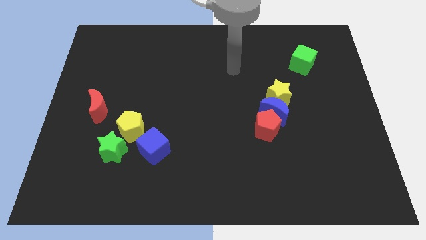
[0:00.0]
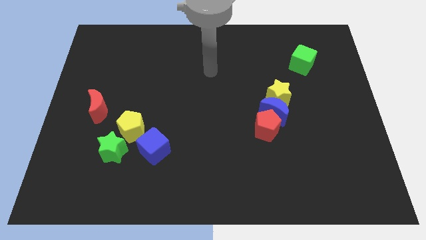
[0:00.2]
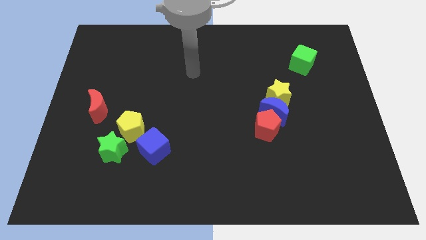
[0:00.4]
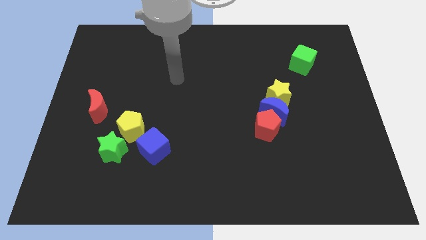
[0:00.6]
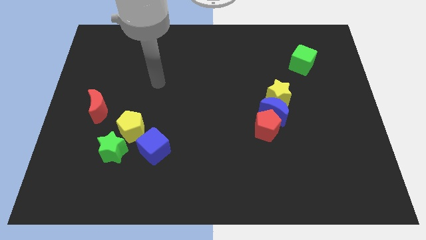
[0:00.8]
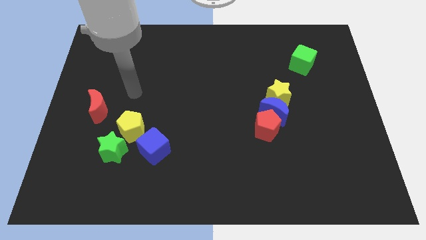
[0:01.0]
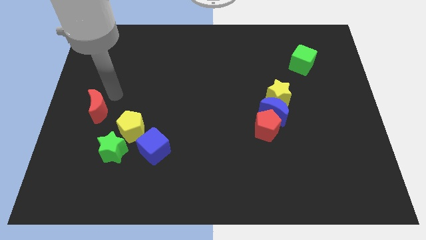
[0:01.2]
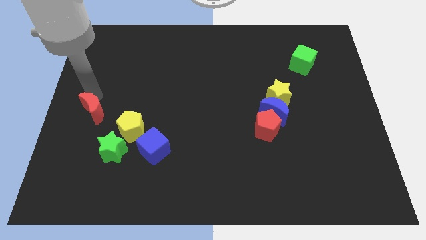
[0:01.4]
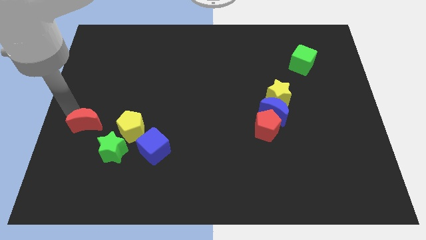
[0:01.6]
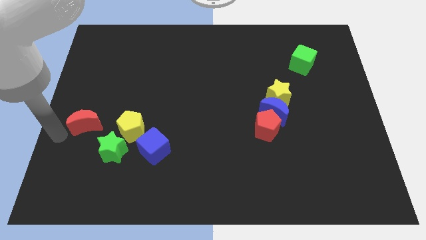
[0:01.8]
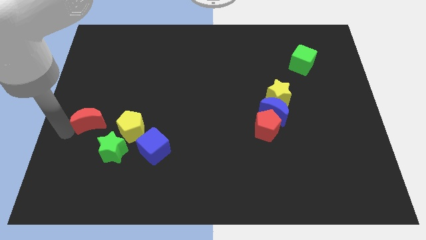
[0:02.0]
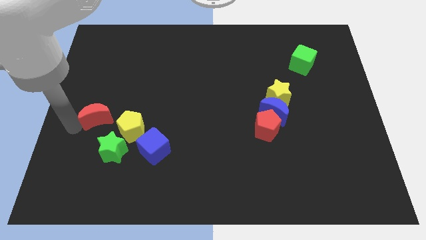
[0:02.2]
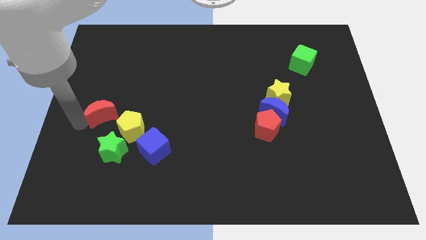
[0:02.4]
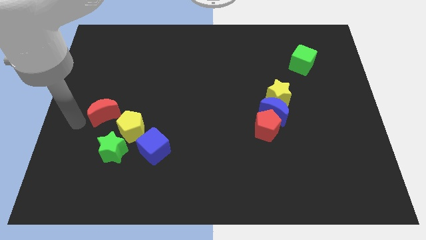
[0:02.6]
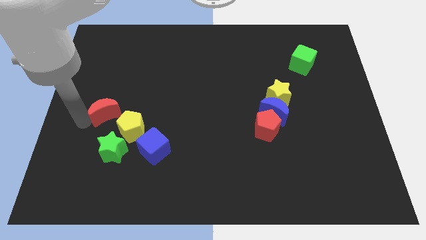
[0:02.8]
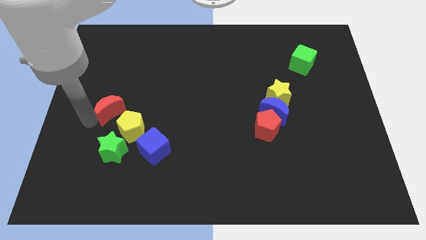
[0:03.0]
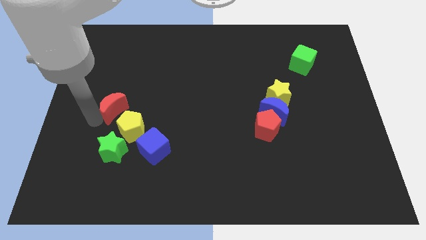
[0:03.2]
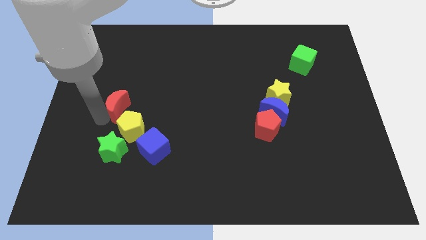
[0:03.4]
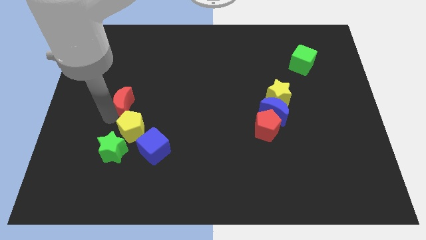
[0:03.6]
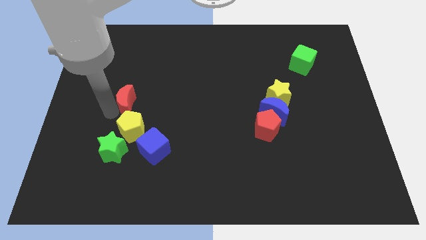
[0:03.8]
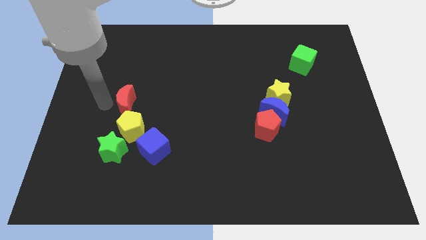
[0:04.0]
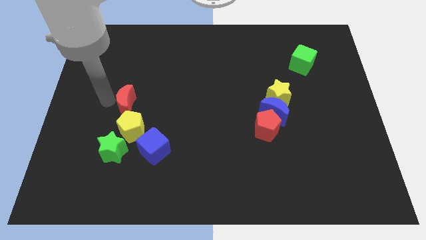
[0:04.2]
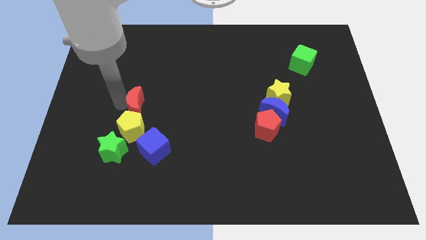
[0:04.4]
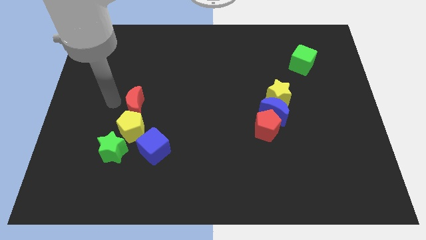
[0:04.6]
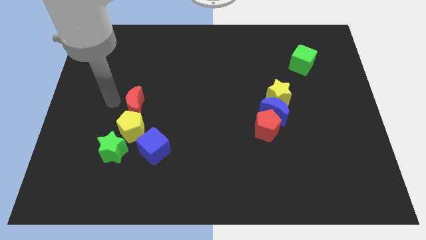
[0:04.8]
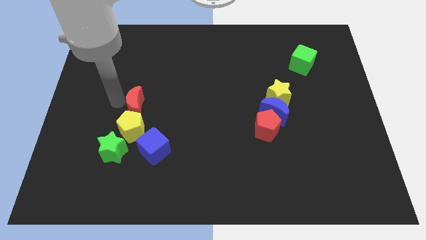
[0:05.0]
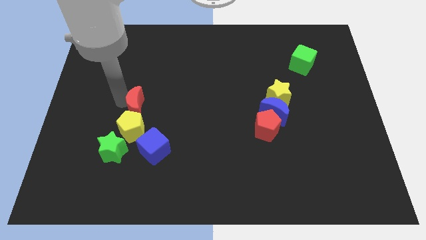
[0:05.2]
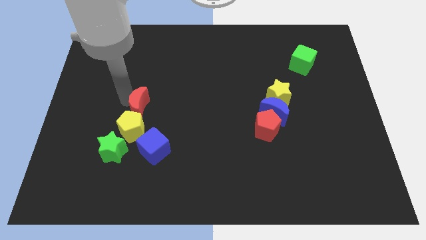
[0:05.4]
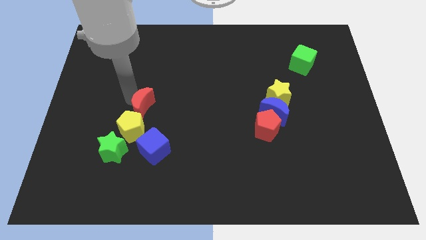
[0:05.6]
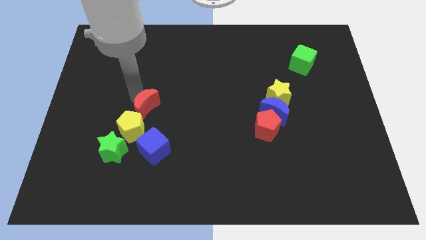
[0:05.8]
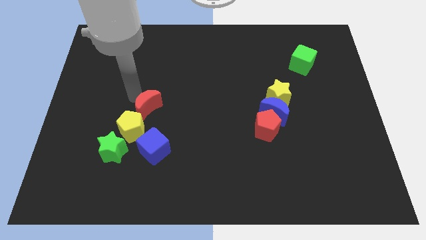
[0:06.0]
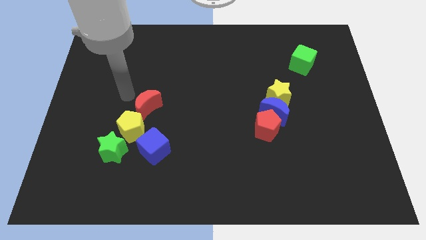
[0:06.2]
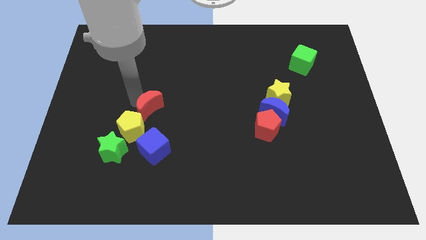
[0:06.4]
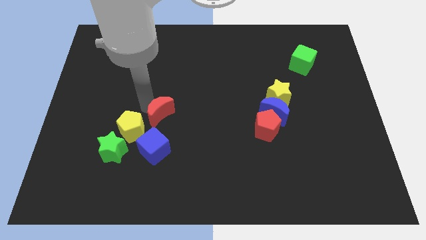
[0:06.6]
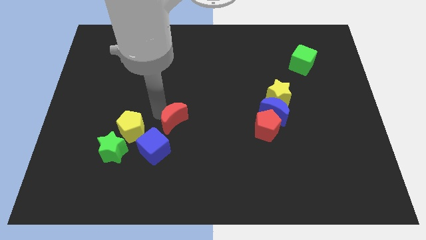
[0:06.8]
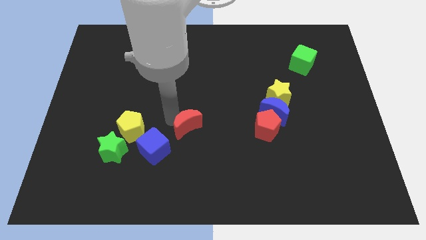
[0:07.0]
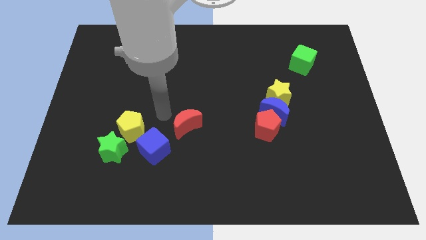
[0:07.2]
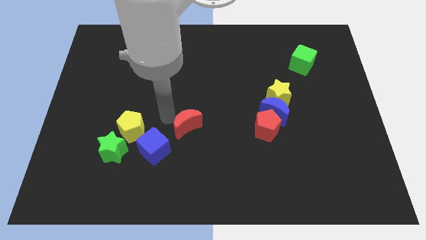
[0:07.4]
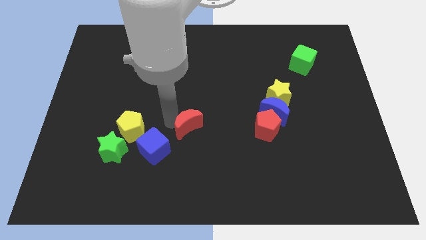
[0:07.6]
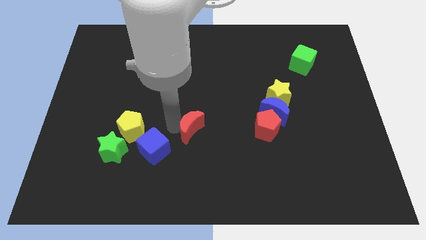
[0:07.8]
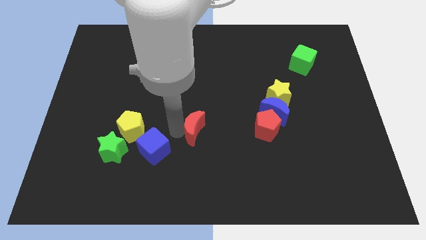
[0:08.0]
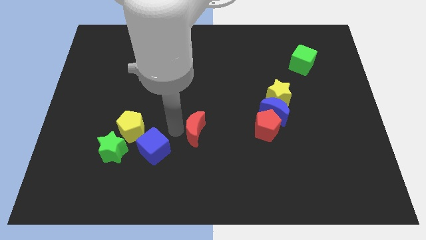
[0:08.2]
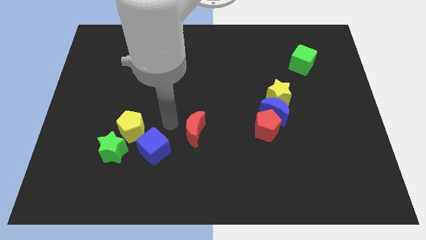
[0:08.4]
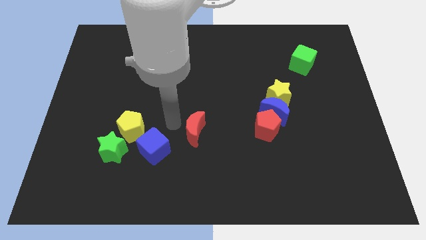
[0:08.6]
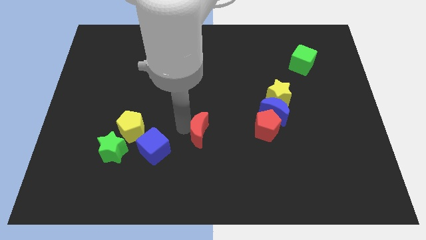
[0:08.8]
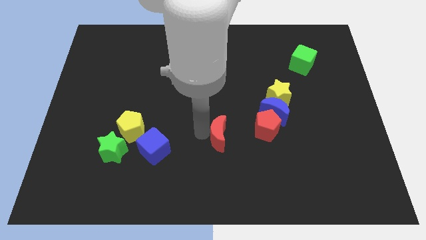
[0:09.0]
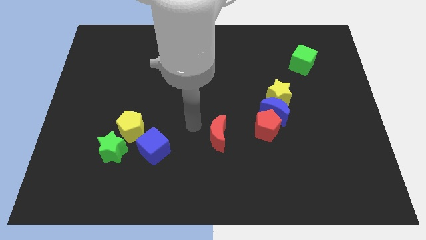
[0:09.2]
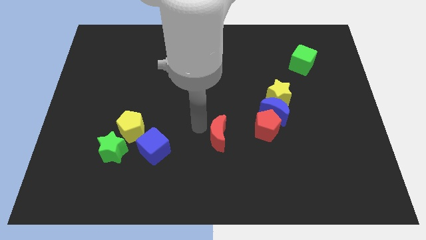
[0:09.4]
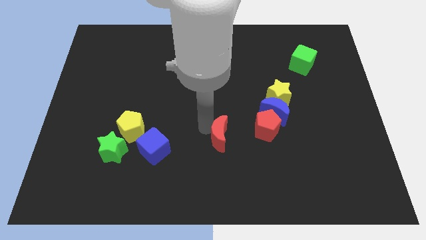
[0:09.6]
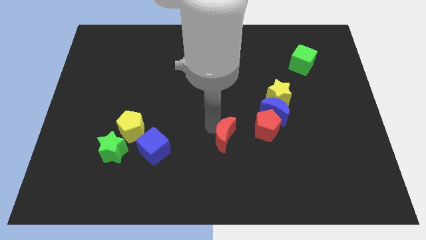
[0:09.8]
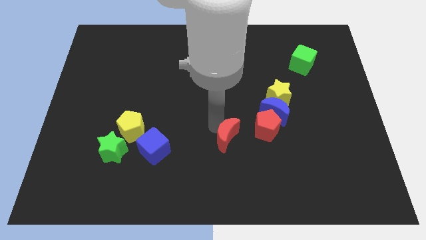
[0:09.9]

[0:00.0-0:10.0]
push the red moon diagonally down and to the left of the red pentagon

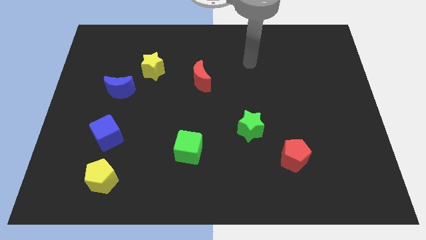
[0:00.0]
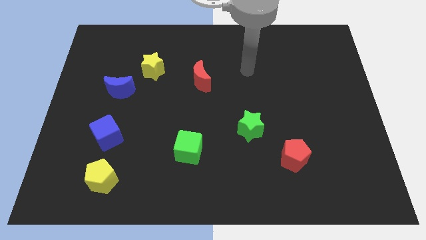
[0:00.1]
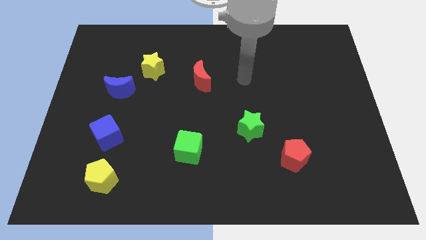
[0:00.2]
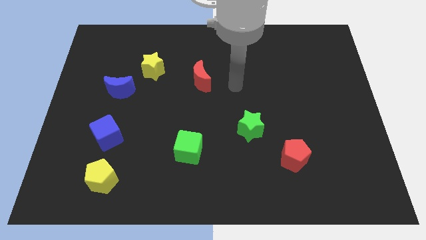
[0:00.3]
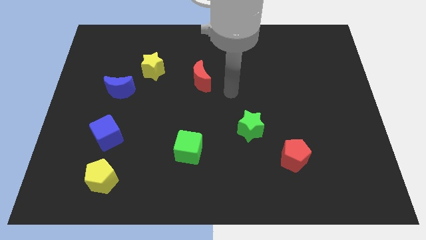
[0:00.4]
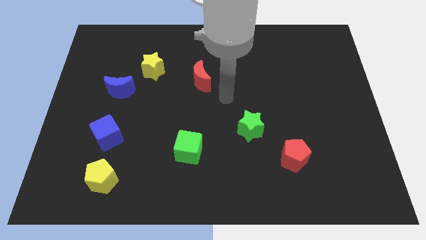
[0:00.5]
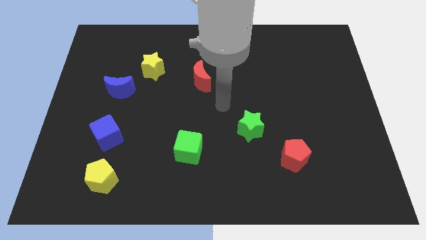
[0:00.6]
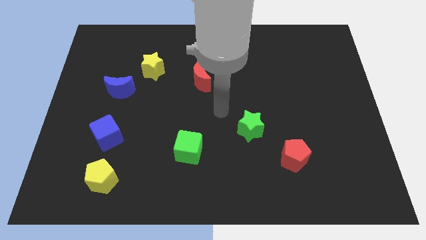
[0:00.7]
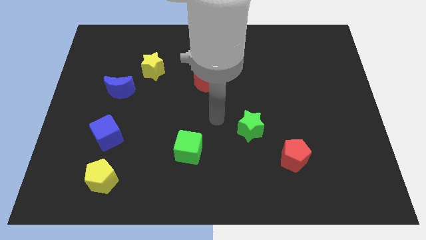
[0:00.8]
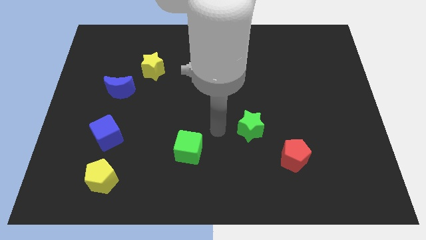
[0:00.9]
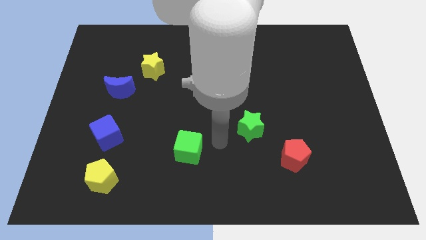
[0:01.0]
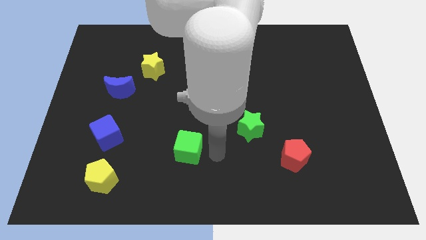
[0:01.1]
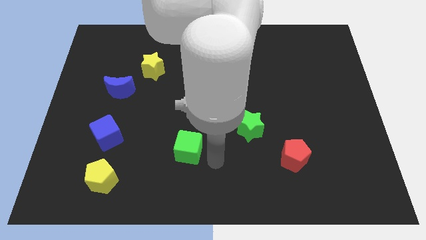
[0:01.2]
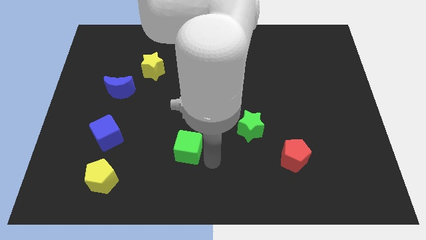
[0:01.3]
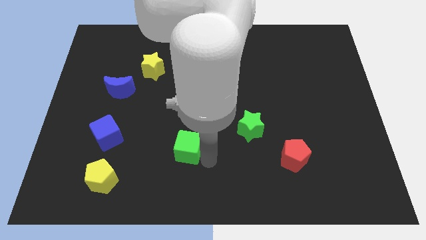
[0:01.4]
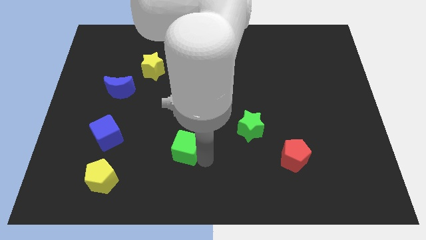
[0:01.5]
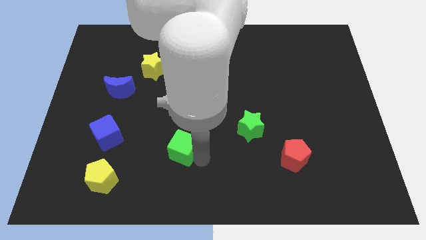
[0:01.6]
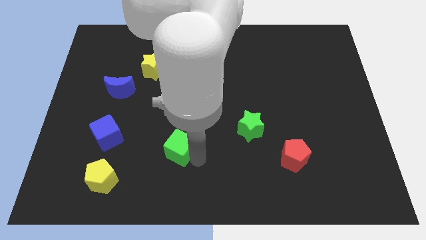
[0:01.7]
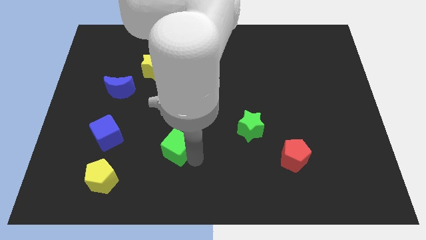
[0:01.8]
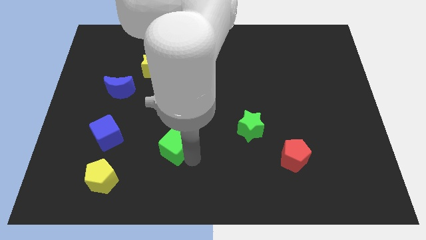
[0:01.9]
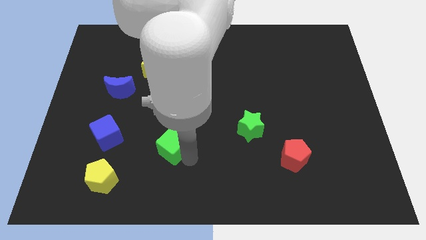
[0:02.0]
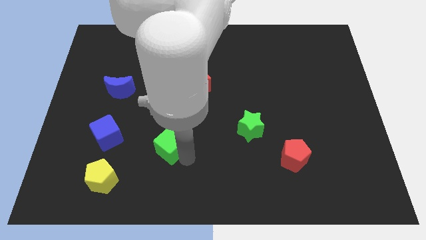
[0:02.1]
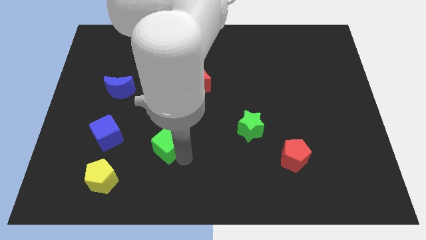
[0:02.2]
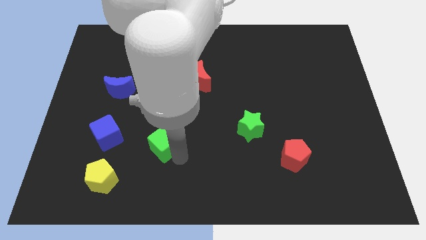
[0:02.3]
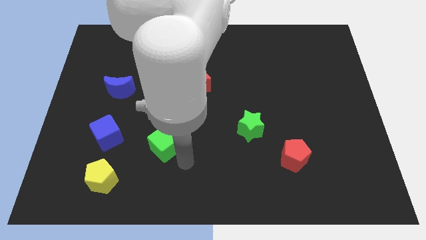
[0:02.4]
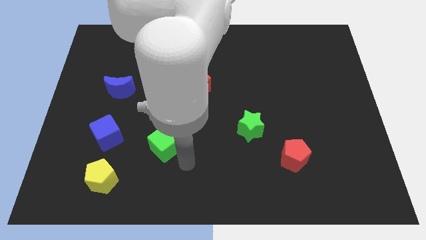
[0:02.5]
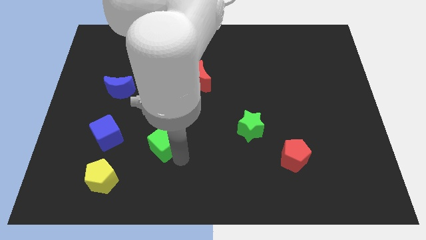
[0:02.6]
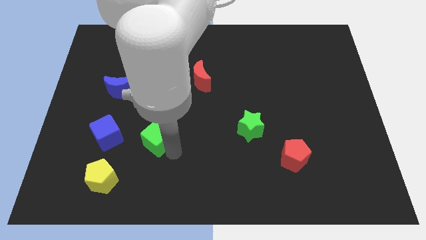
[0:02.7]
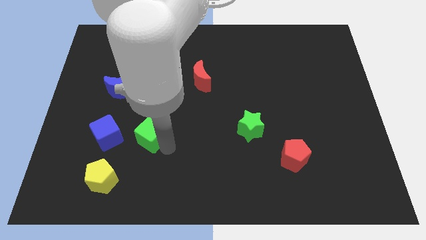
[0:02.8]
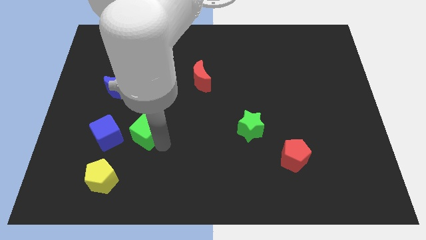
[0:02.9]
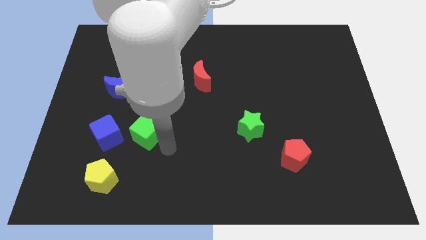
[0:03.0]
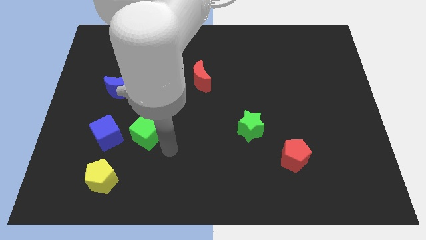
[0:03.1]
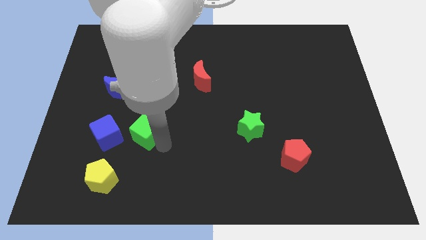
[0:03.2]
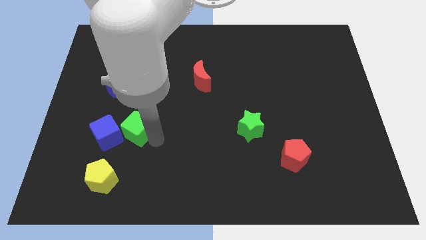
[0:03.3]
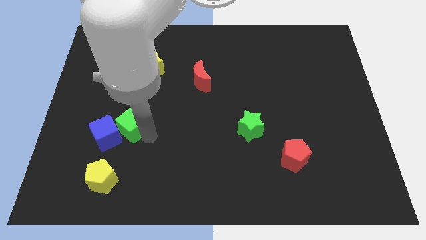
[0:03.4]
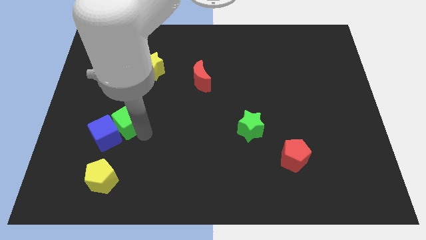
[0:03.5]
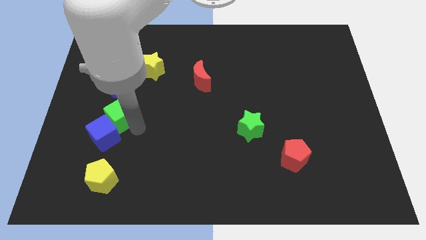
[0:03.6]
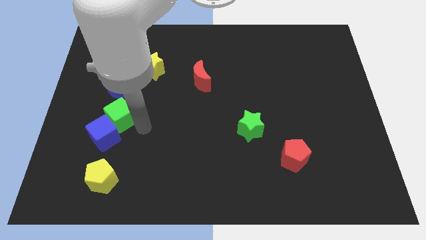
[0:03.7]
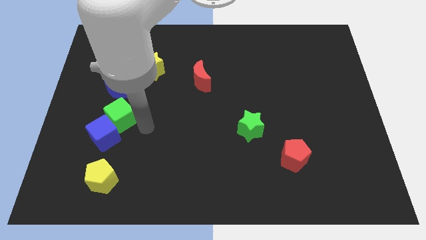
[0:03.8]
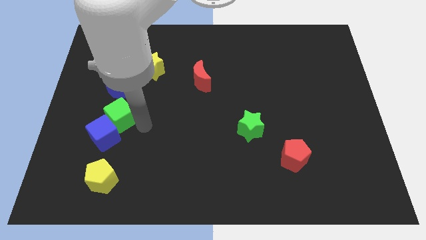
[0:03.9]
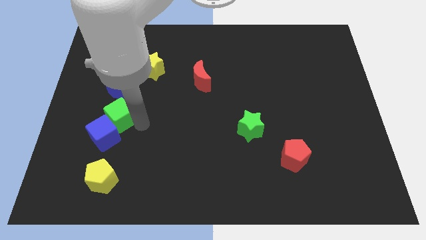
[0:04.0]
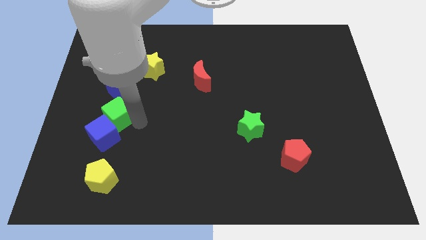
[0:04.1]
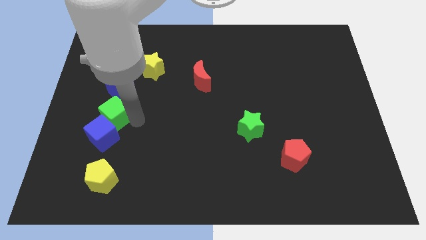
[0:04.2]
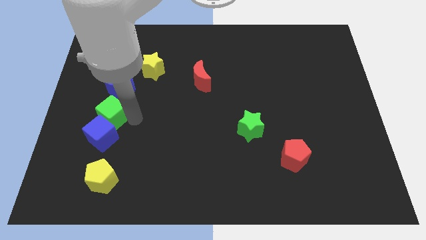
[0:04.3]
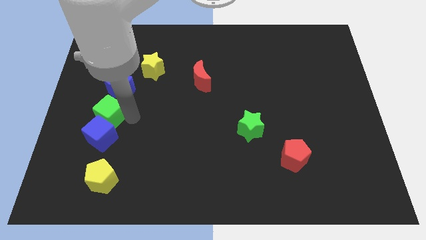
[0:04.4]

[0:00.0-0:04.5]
move the green cube to the bottom left of the blue moon
